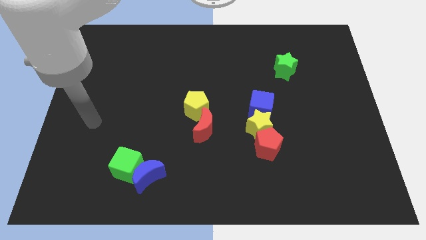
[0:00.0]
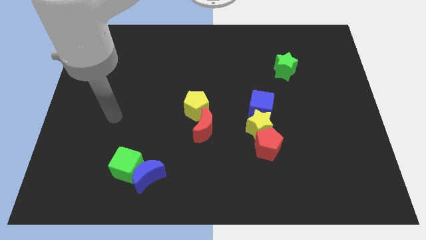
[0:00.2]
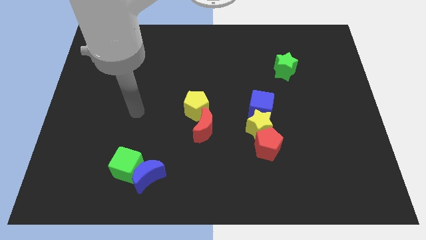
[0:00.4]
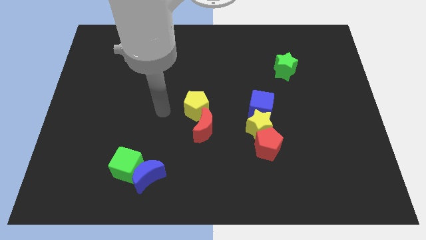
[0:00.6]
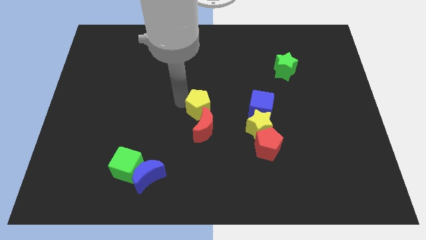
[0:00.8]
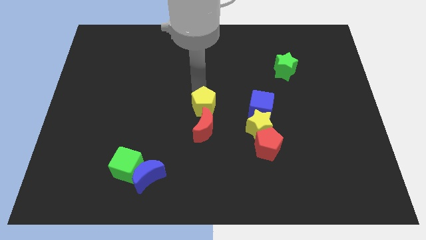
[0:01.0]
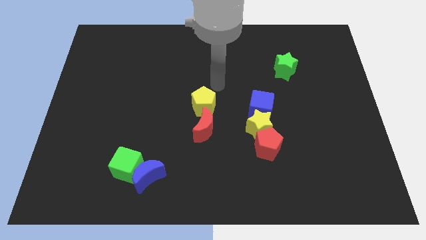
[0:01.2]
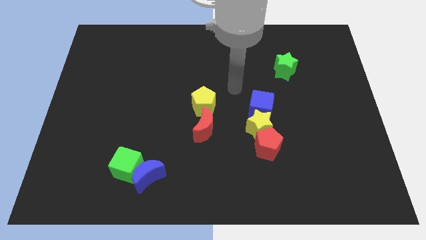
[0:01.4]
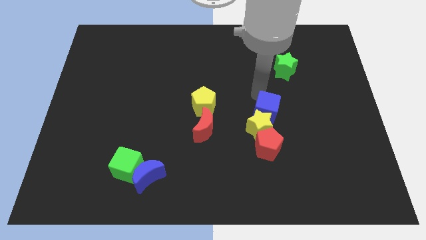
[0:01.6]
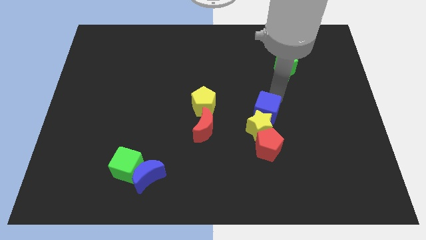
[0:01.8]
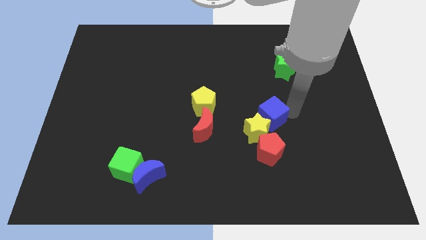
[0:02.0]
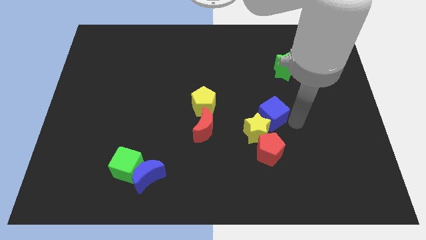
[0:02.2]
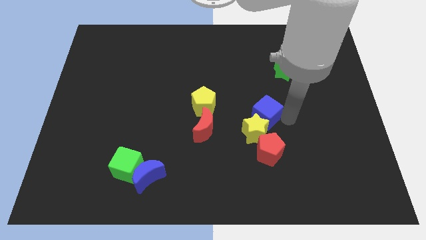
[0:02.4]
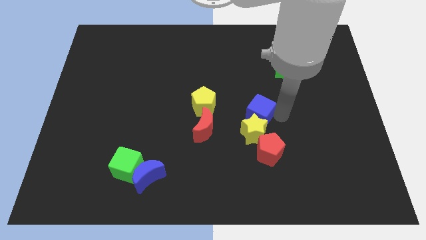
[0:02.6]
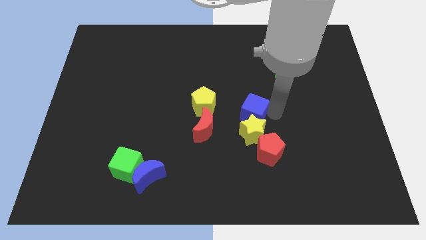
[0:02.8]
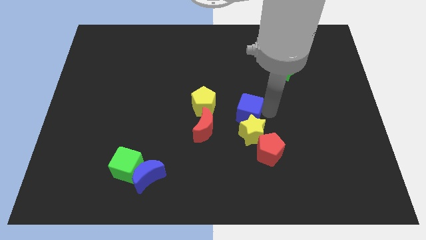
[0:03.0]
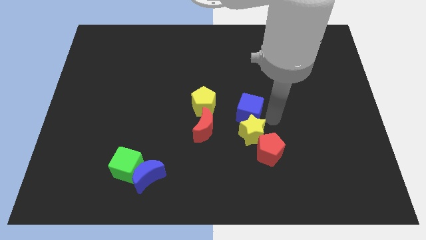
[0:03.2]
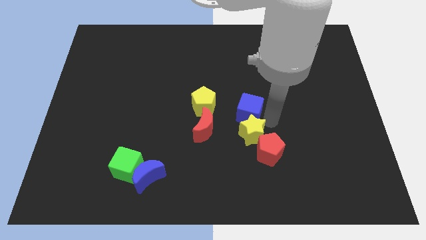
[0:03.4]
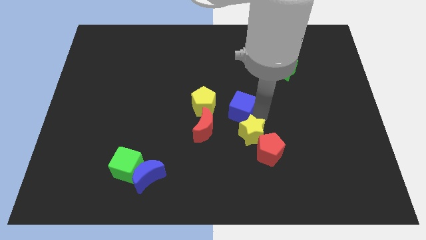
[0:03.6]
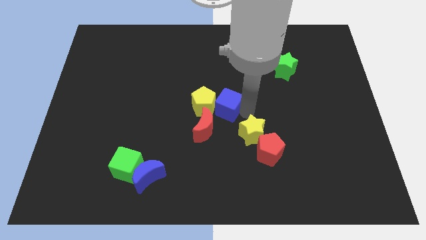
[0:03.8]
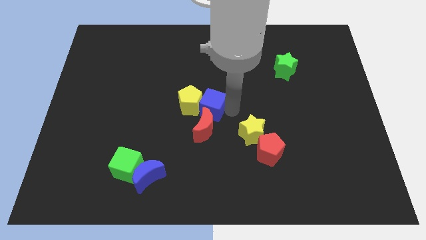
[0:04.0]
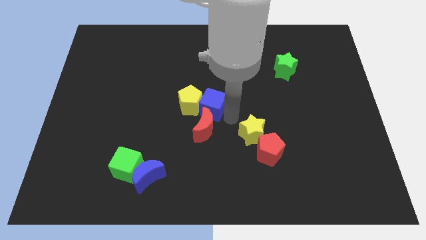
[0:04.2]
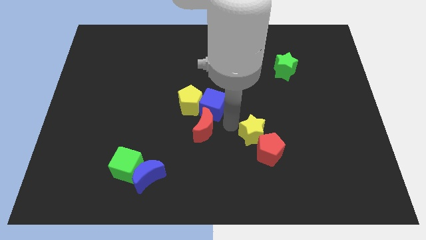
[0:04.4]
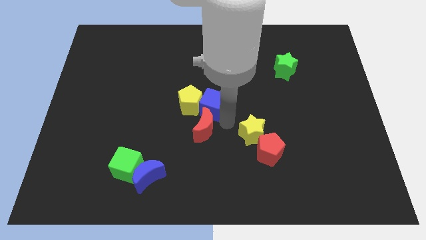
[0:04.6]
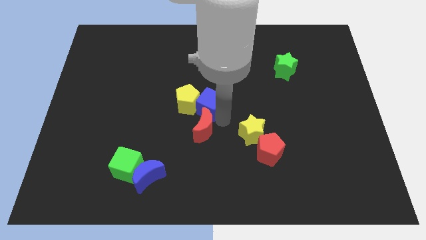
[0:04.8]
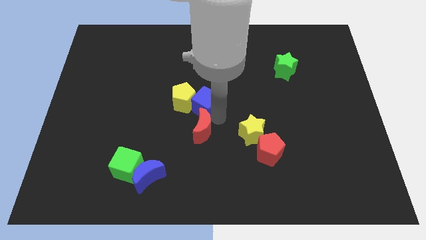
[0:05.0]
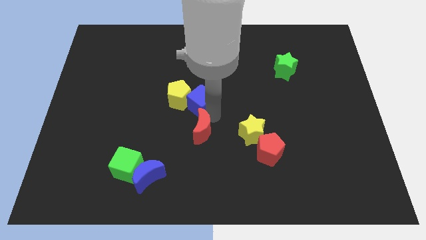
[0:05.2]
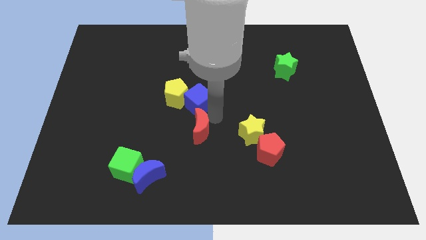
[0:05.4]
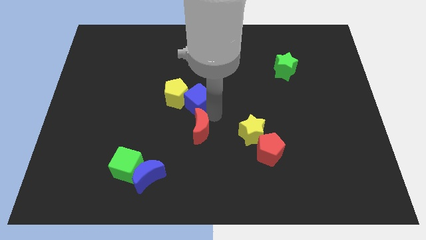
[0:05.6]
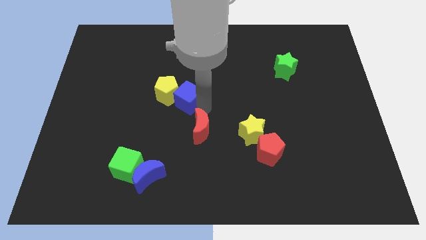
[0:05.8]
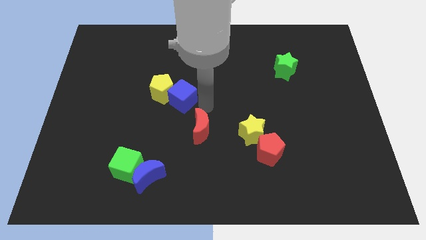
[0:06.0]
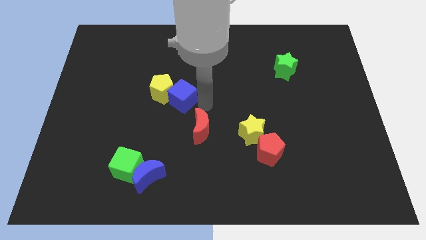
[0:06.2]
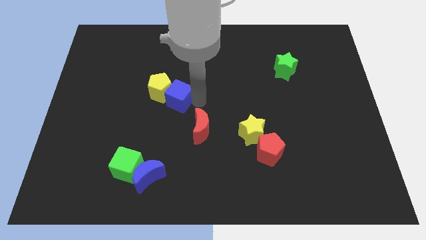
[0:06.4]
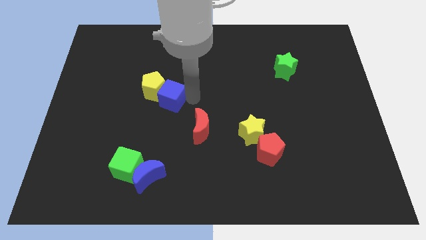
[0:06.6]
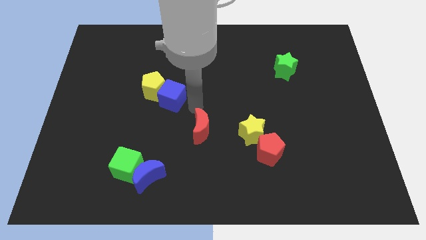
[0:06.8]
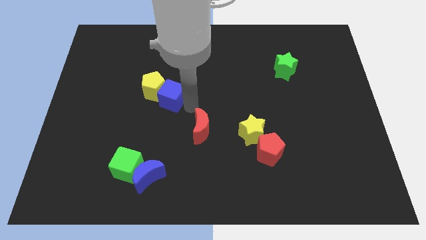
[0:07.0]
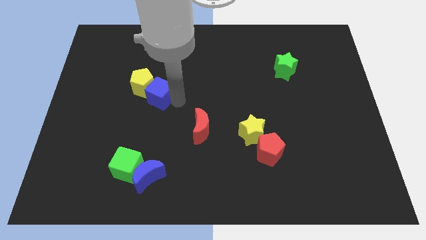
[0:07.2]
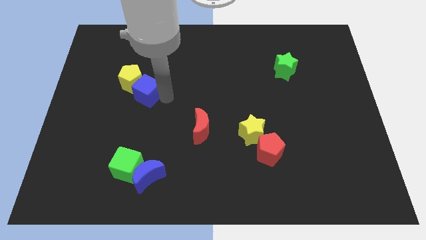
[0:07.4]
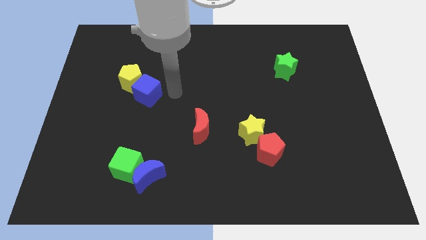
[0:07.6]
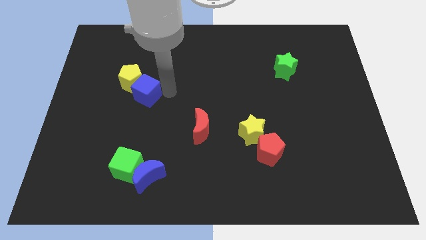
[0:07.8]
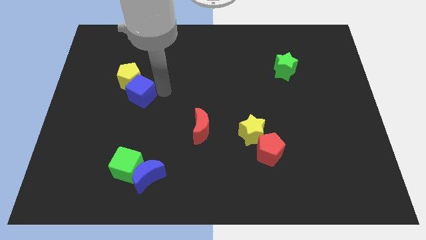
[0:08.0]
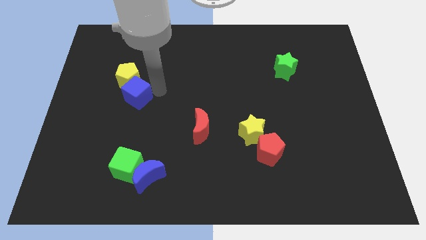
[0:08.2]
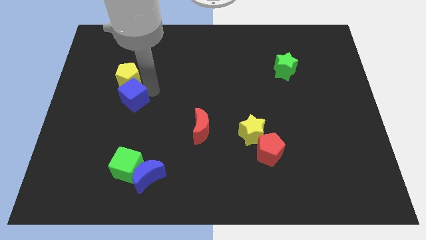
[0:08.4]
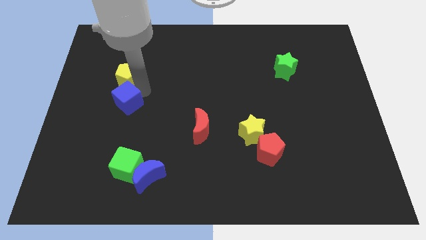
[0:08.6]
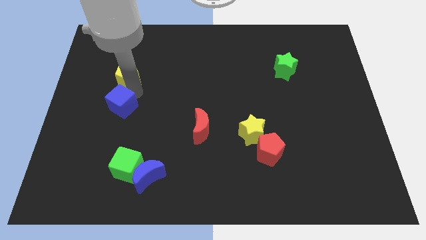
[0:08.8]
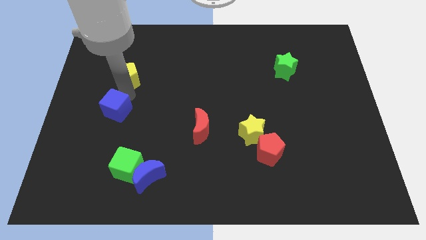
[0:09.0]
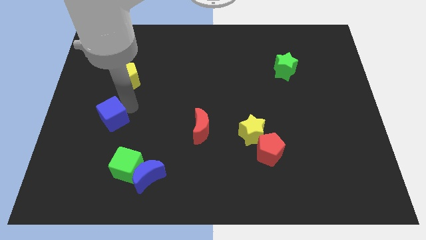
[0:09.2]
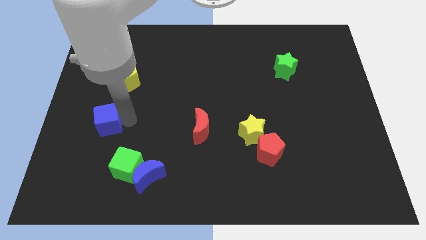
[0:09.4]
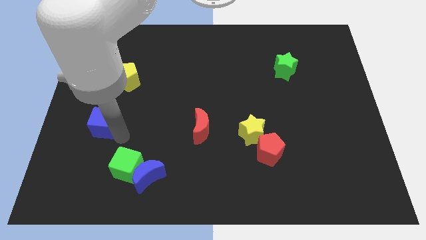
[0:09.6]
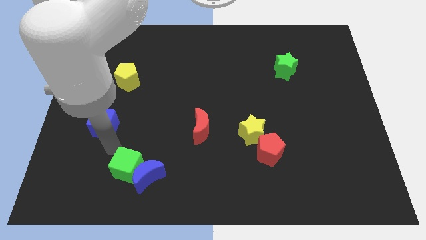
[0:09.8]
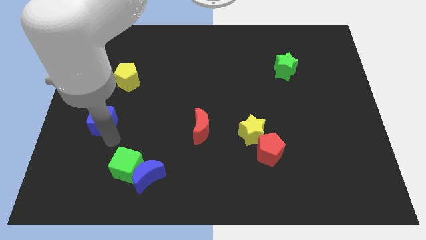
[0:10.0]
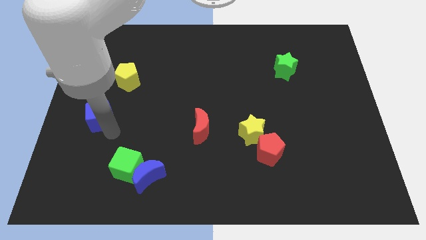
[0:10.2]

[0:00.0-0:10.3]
put the blue cube to the center left
